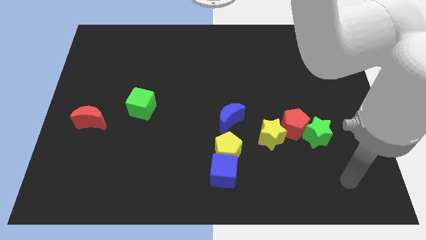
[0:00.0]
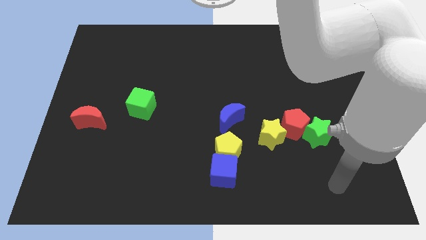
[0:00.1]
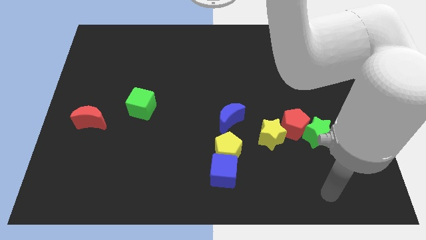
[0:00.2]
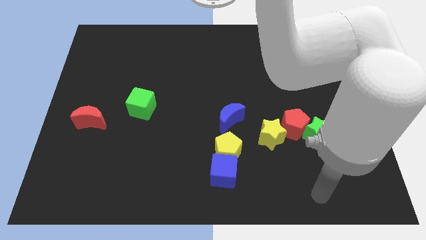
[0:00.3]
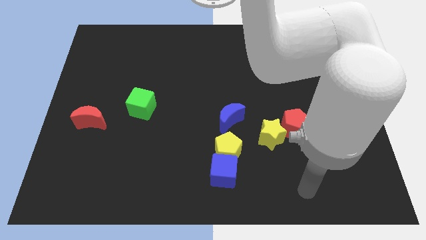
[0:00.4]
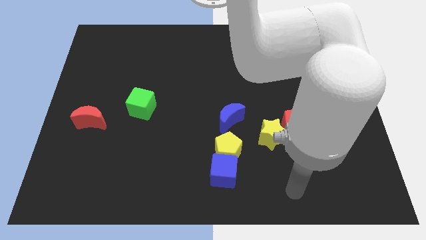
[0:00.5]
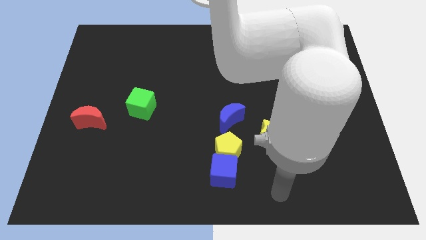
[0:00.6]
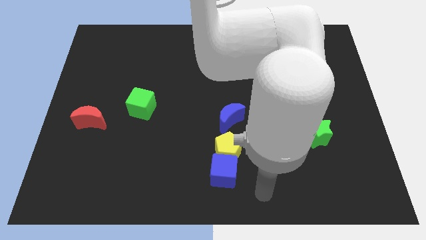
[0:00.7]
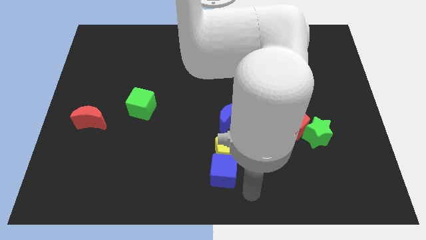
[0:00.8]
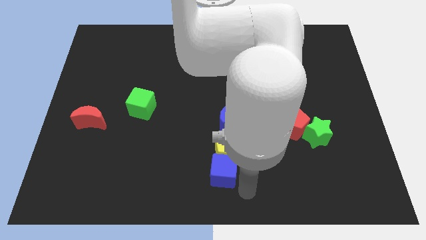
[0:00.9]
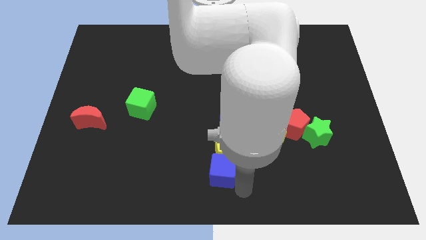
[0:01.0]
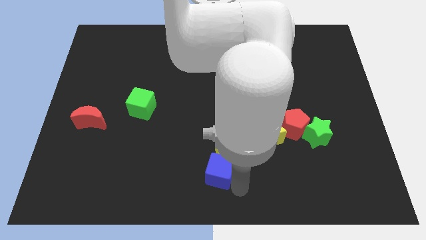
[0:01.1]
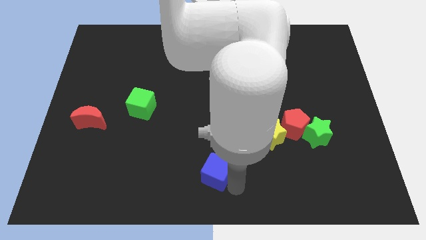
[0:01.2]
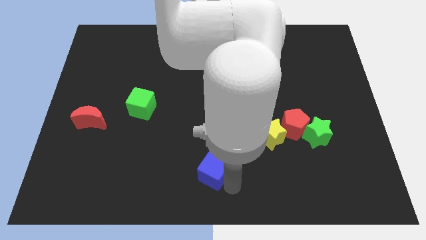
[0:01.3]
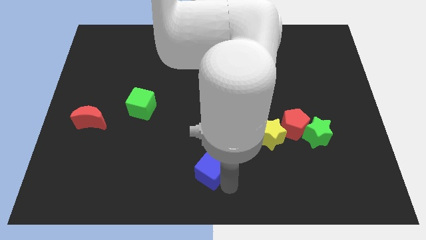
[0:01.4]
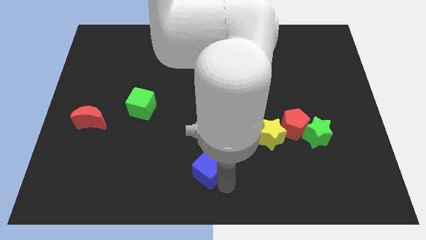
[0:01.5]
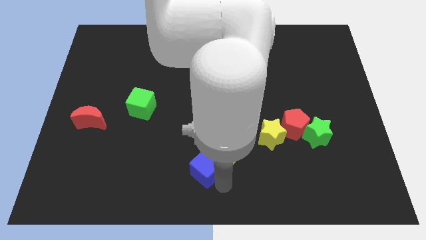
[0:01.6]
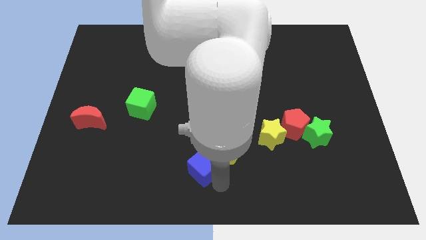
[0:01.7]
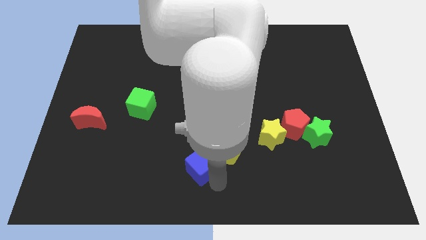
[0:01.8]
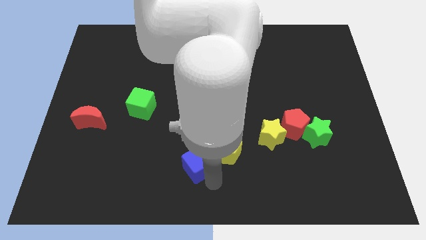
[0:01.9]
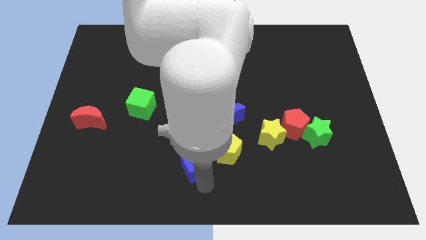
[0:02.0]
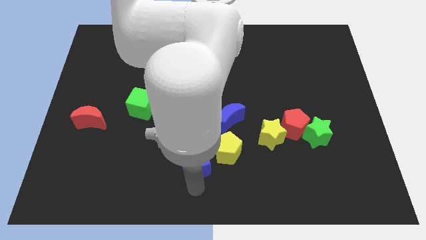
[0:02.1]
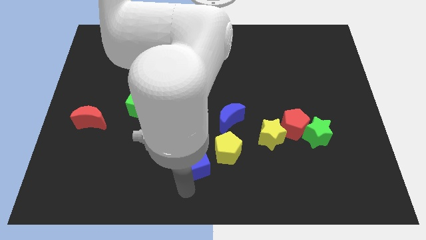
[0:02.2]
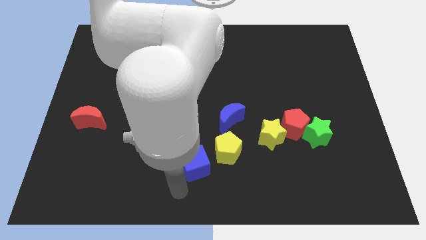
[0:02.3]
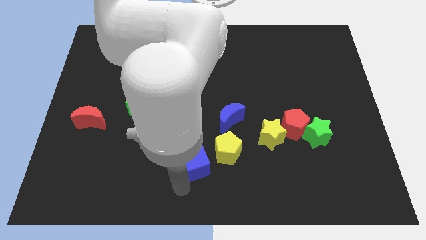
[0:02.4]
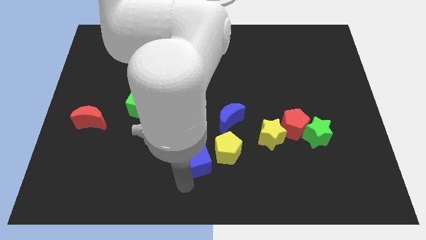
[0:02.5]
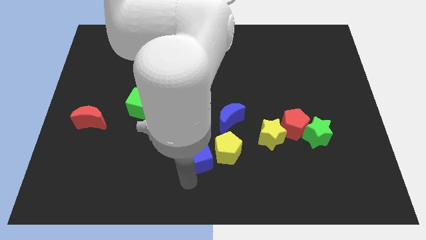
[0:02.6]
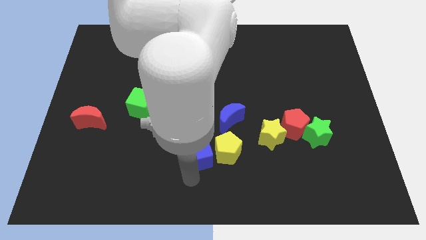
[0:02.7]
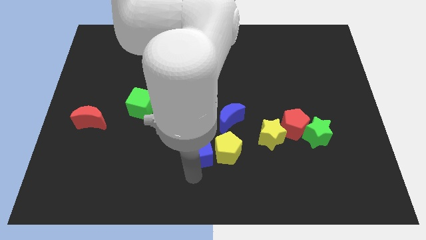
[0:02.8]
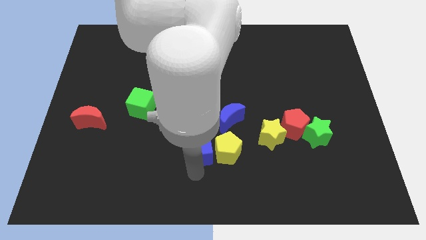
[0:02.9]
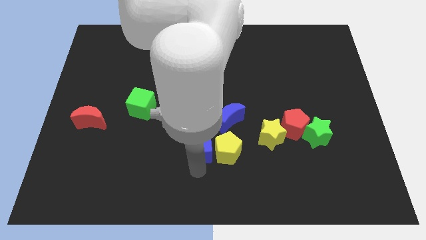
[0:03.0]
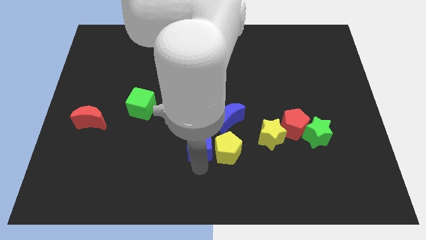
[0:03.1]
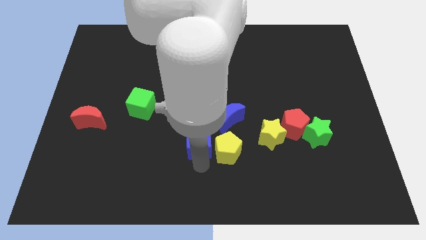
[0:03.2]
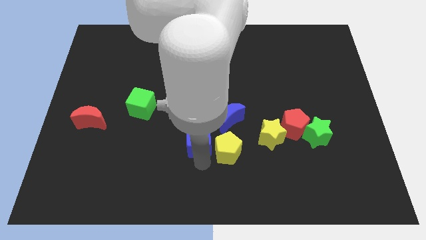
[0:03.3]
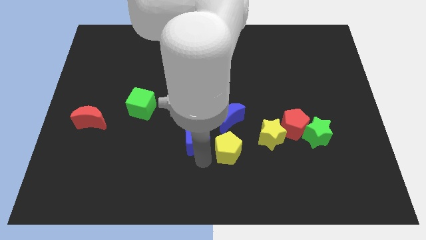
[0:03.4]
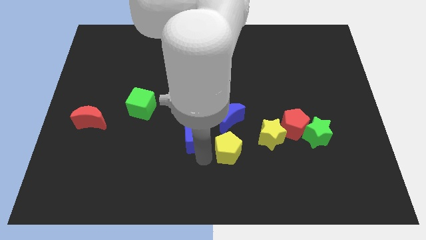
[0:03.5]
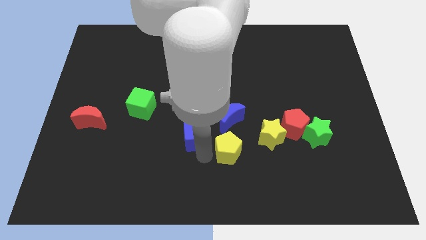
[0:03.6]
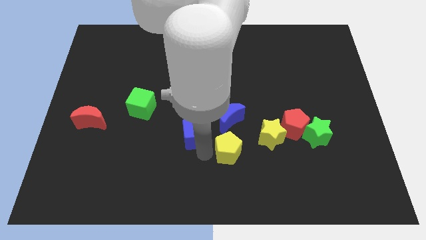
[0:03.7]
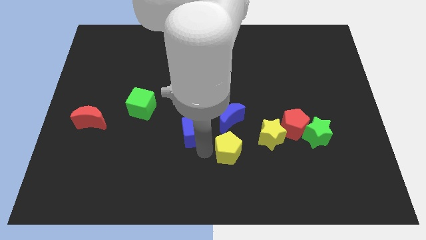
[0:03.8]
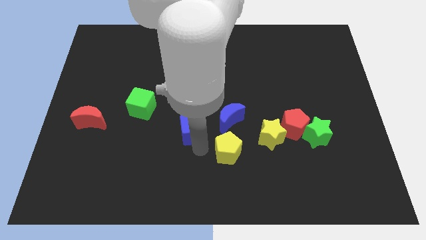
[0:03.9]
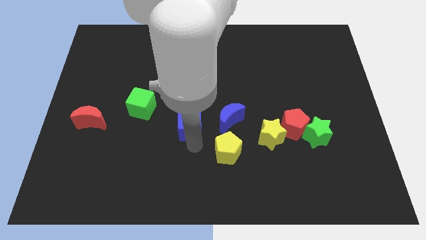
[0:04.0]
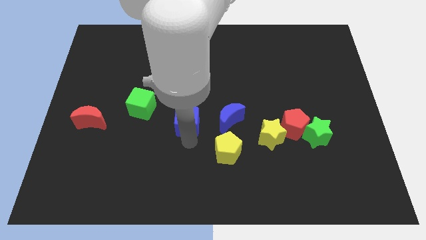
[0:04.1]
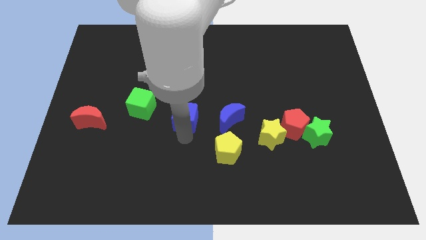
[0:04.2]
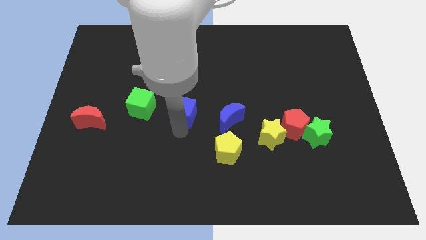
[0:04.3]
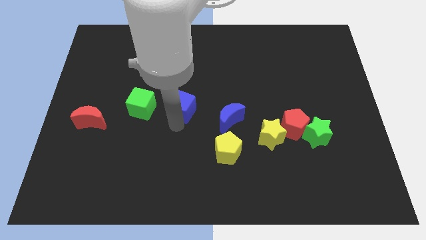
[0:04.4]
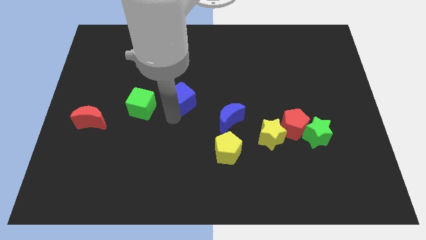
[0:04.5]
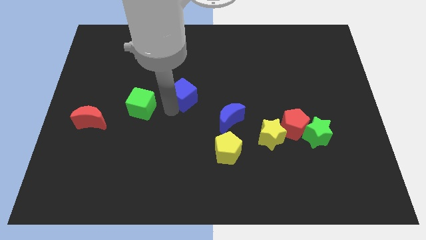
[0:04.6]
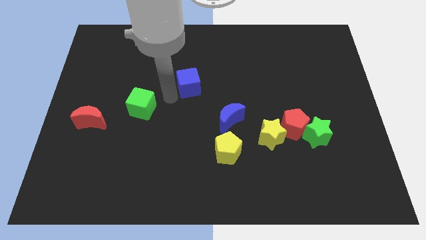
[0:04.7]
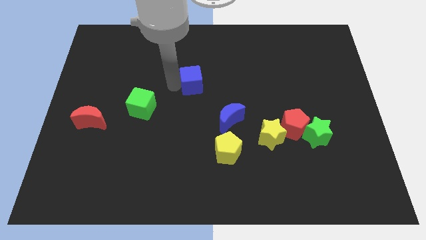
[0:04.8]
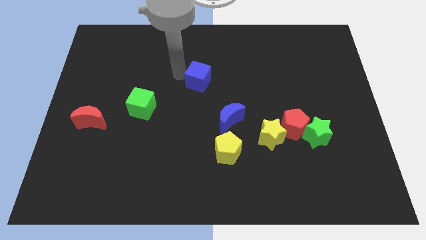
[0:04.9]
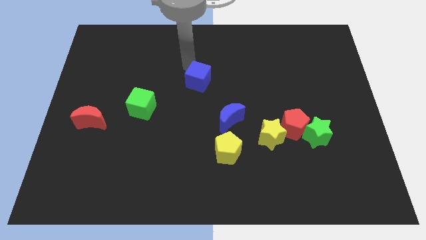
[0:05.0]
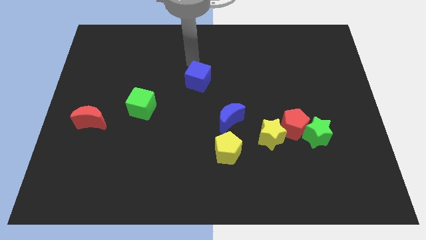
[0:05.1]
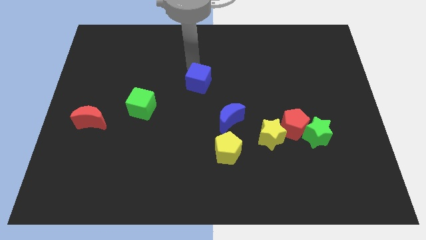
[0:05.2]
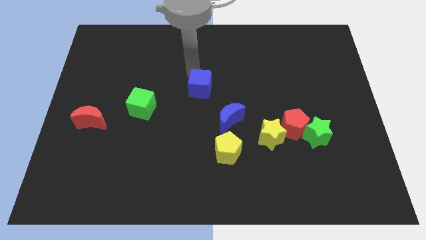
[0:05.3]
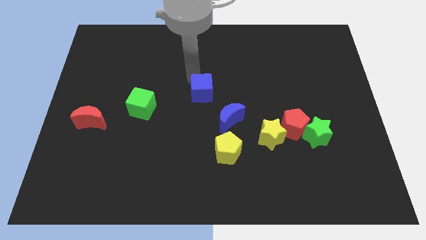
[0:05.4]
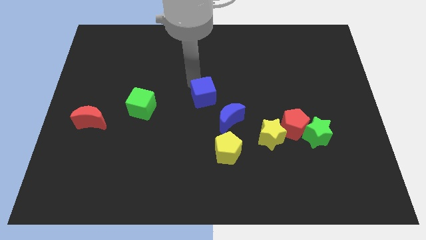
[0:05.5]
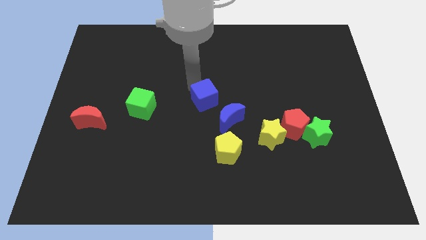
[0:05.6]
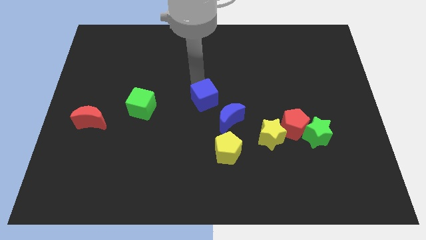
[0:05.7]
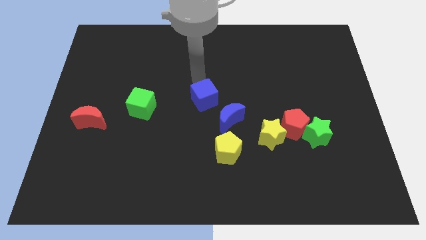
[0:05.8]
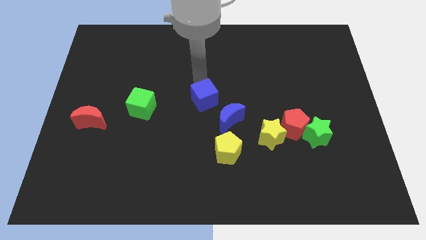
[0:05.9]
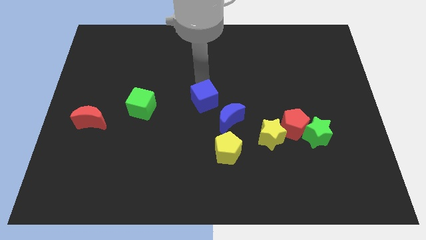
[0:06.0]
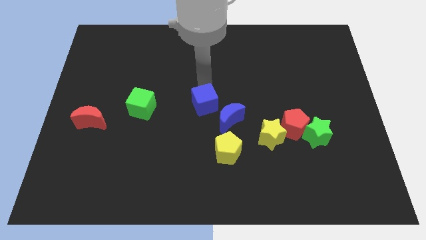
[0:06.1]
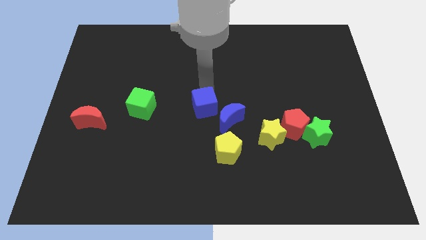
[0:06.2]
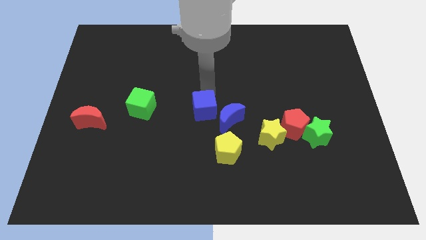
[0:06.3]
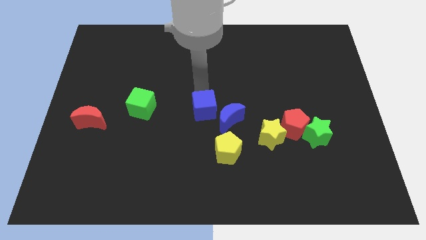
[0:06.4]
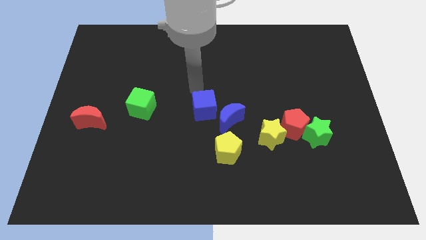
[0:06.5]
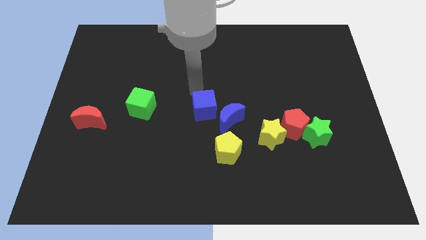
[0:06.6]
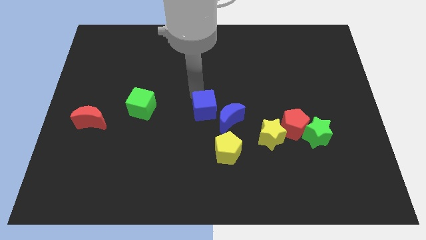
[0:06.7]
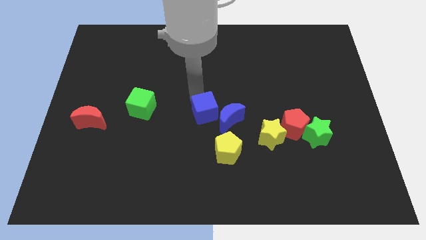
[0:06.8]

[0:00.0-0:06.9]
push the blue cube next to the blue moon

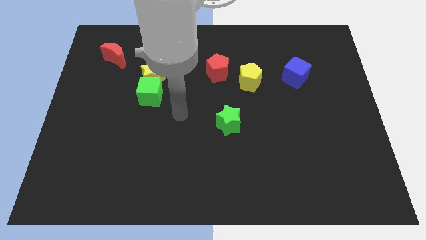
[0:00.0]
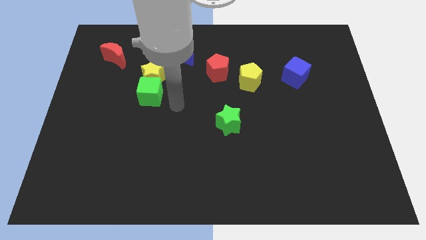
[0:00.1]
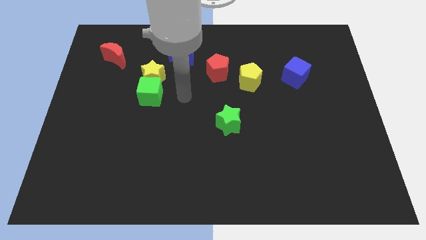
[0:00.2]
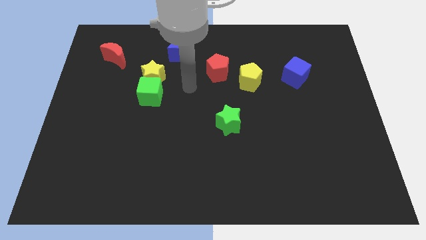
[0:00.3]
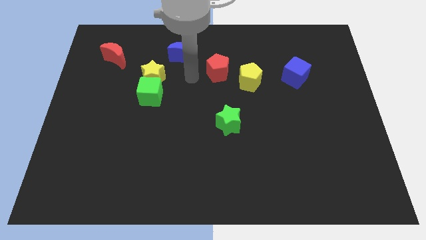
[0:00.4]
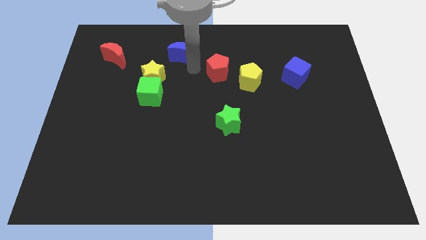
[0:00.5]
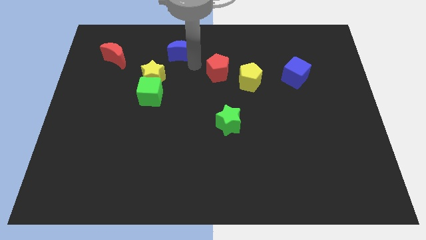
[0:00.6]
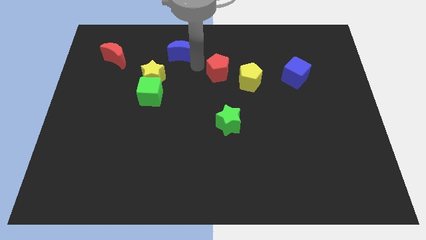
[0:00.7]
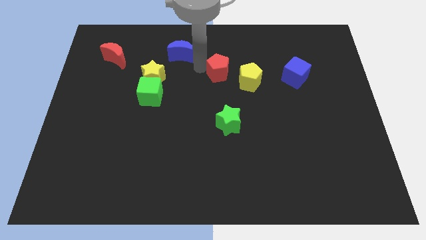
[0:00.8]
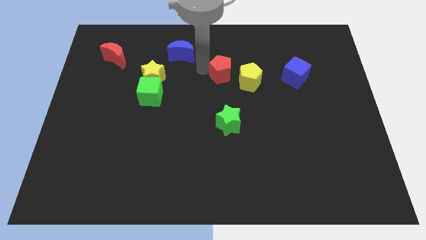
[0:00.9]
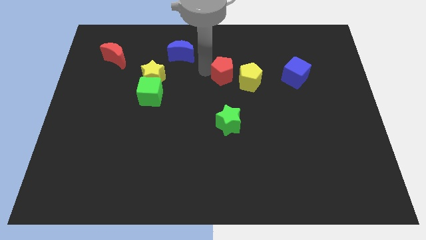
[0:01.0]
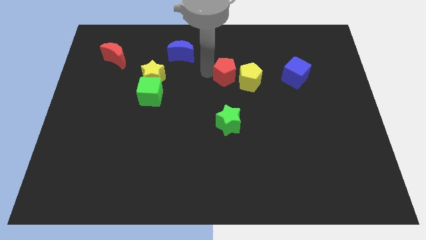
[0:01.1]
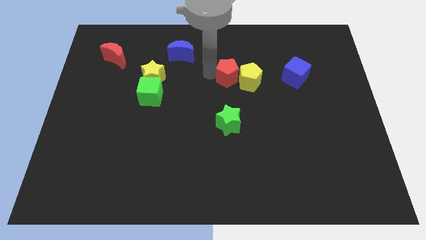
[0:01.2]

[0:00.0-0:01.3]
move the red pentagon close to the yellow pentagon
